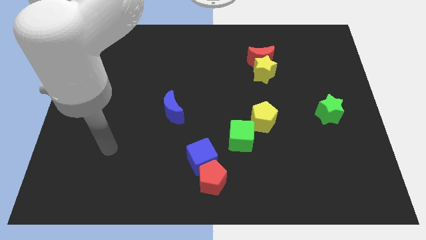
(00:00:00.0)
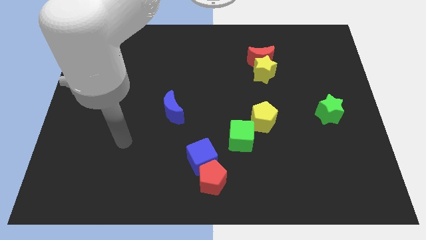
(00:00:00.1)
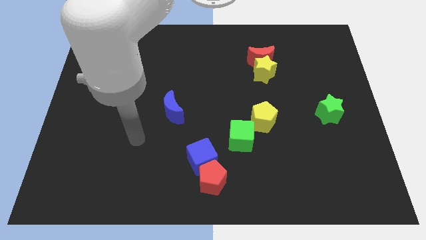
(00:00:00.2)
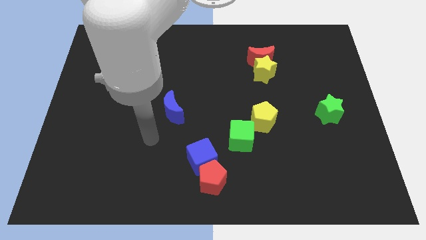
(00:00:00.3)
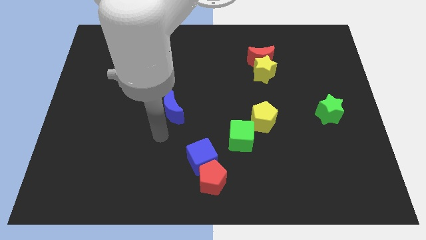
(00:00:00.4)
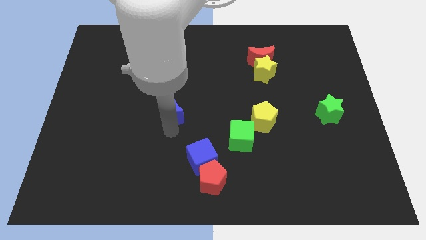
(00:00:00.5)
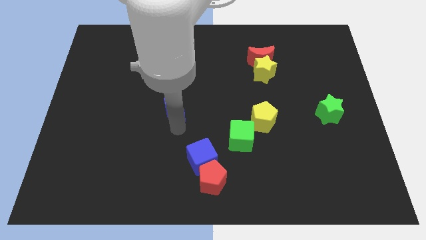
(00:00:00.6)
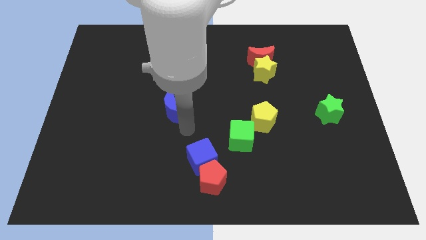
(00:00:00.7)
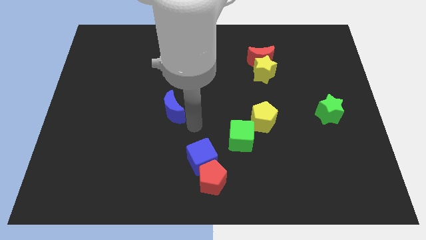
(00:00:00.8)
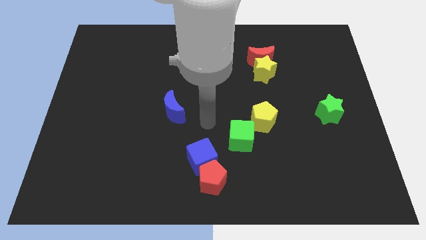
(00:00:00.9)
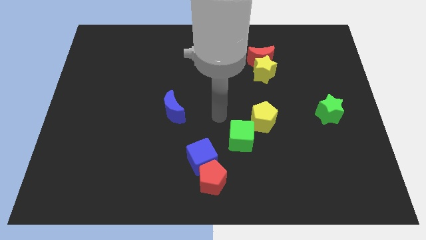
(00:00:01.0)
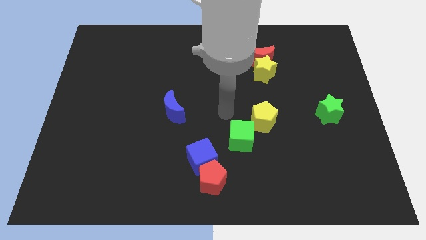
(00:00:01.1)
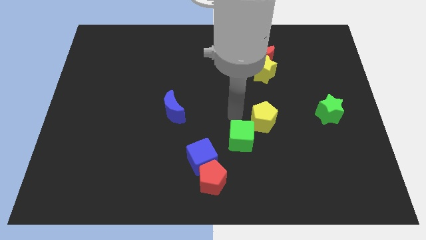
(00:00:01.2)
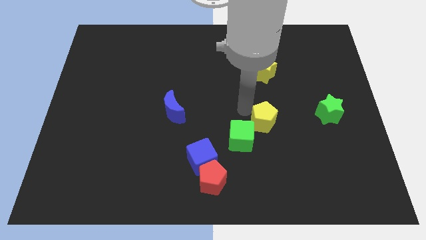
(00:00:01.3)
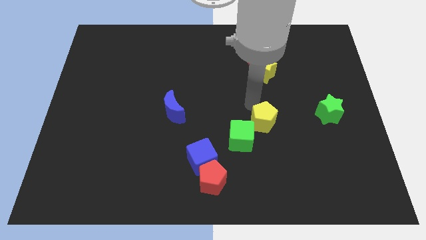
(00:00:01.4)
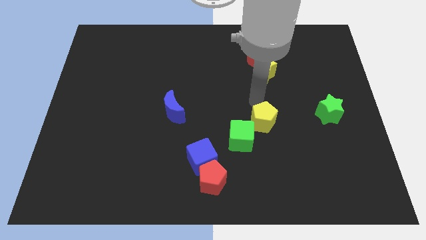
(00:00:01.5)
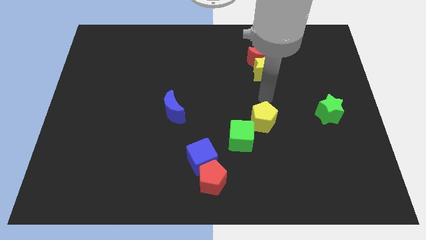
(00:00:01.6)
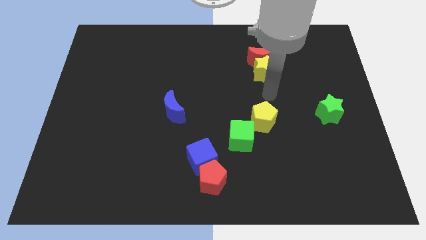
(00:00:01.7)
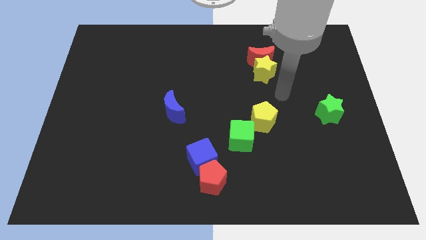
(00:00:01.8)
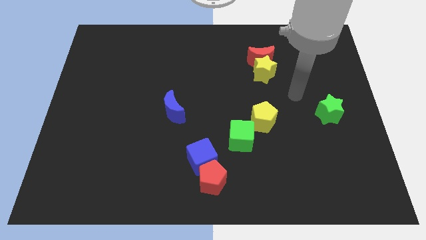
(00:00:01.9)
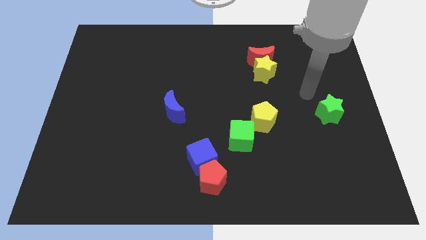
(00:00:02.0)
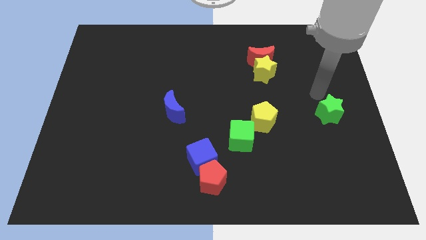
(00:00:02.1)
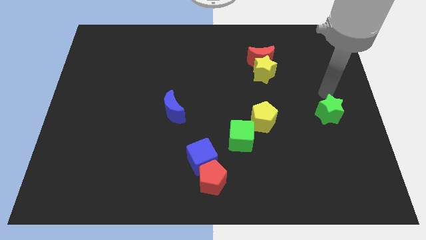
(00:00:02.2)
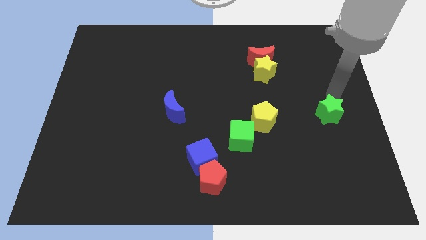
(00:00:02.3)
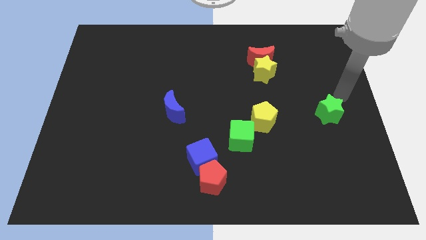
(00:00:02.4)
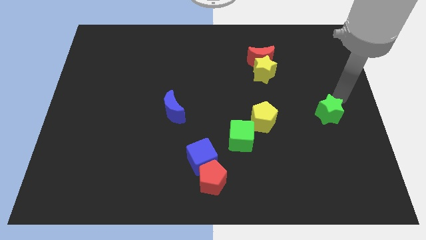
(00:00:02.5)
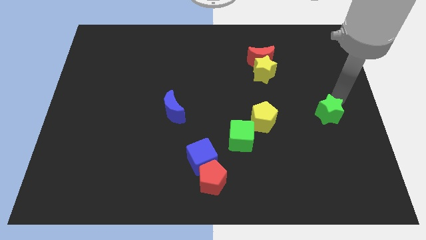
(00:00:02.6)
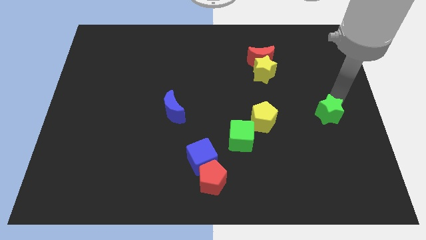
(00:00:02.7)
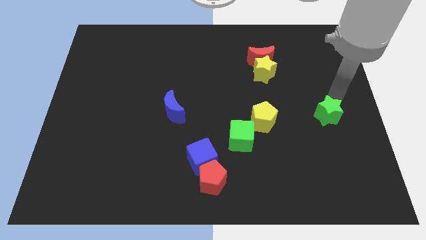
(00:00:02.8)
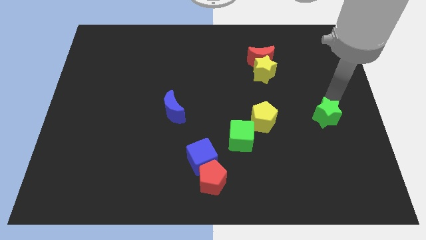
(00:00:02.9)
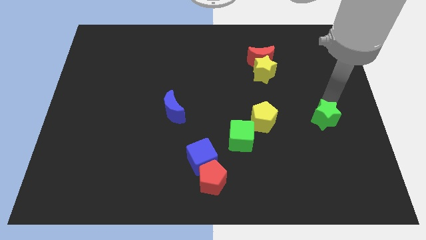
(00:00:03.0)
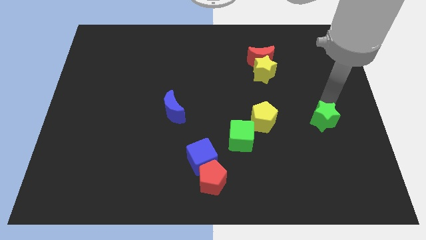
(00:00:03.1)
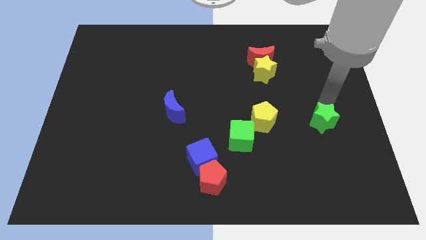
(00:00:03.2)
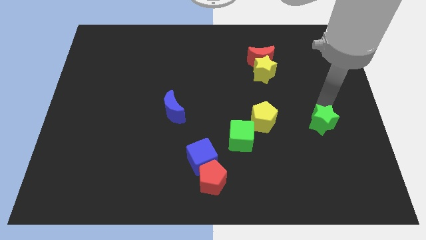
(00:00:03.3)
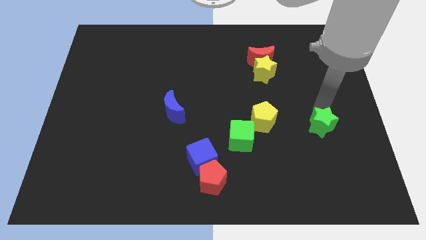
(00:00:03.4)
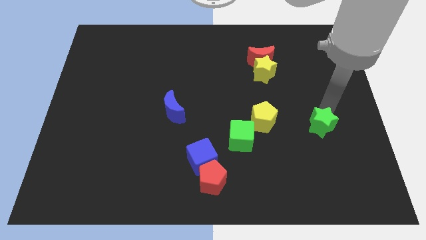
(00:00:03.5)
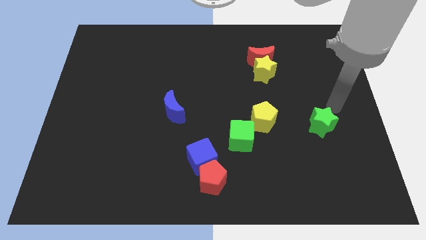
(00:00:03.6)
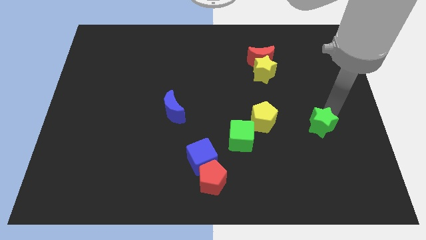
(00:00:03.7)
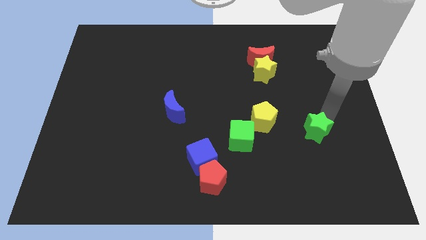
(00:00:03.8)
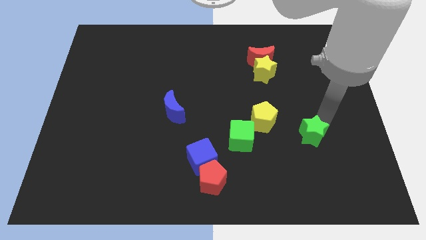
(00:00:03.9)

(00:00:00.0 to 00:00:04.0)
push the green star down and left diagonally a little bit

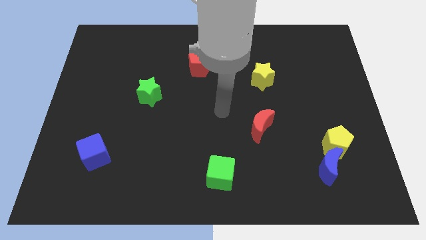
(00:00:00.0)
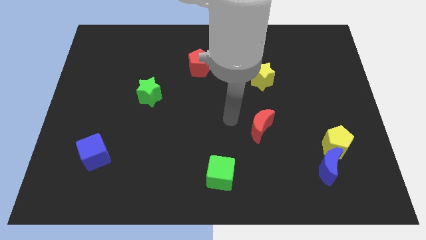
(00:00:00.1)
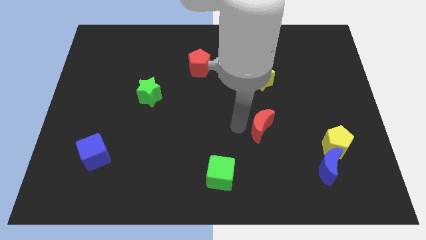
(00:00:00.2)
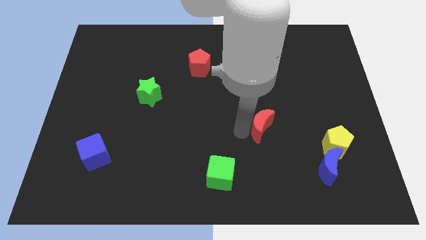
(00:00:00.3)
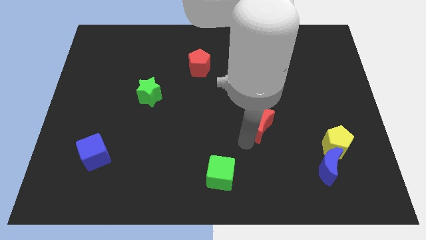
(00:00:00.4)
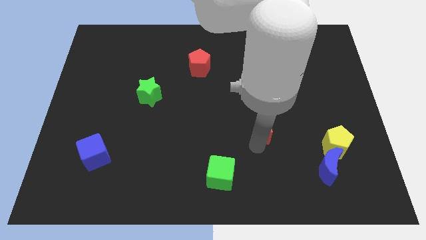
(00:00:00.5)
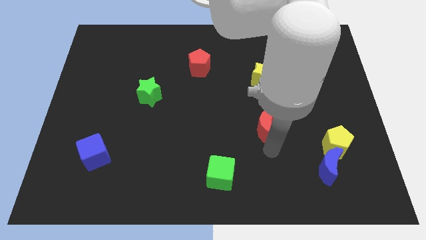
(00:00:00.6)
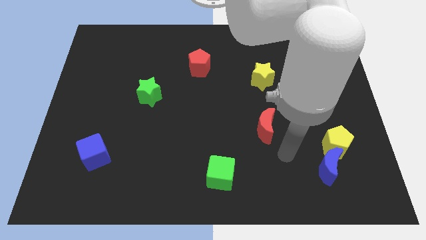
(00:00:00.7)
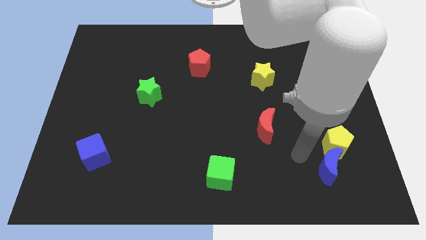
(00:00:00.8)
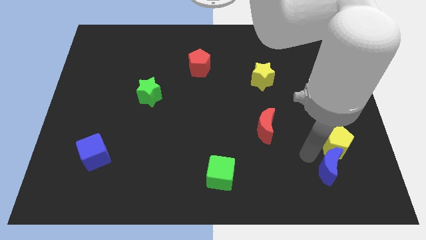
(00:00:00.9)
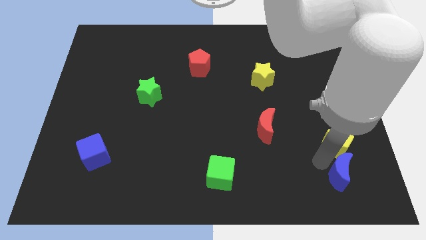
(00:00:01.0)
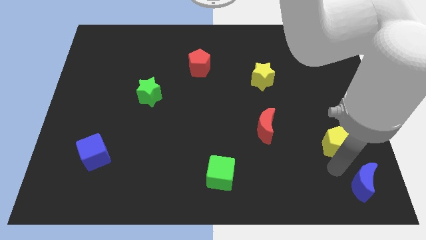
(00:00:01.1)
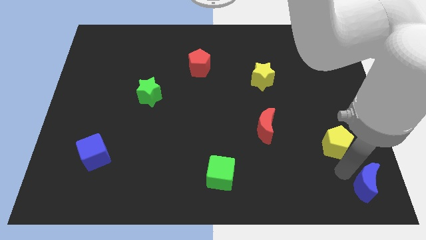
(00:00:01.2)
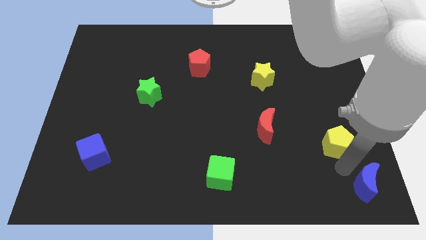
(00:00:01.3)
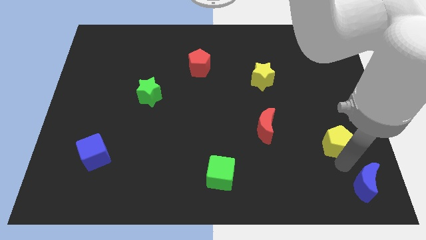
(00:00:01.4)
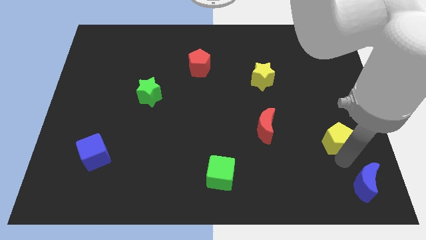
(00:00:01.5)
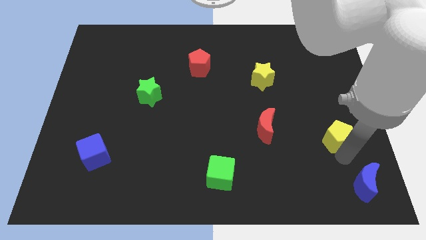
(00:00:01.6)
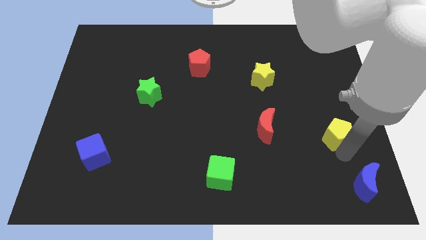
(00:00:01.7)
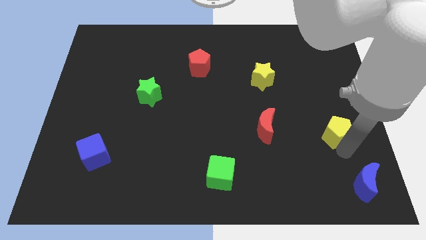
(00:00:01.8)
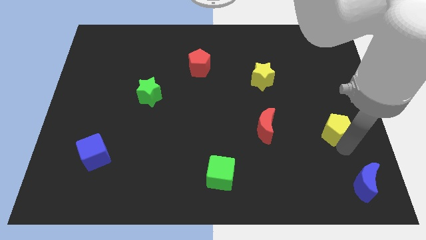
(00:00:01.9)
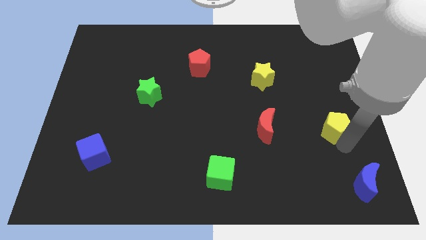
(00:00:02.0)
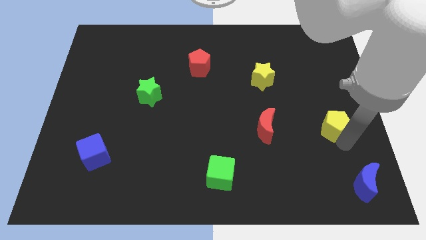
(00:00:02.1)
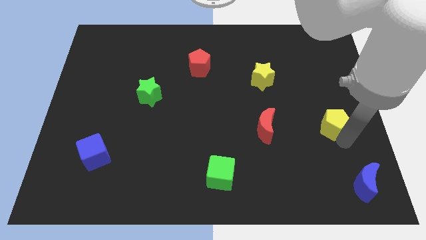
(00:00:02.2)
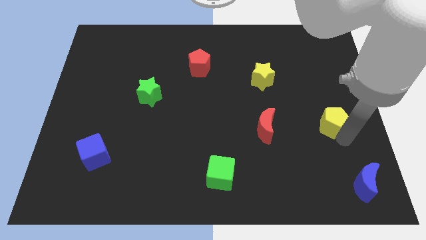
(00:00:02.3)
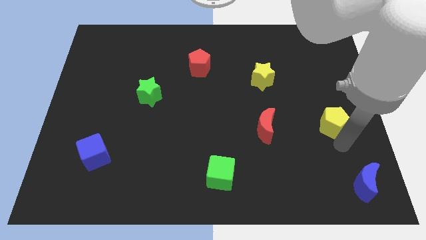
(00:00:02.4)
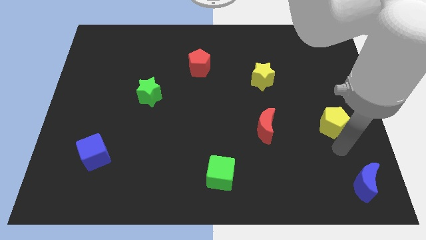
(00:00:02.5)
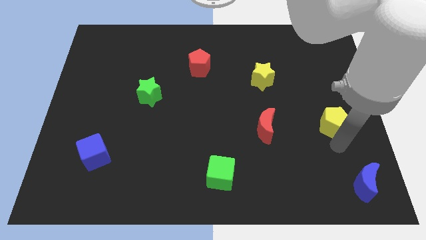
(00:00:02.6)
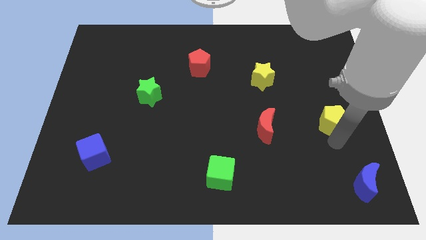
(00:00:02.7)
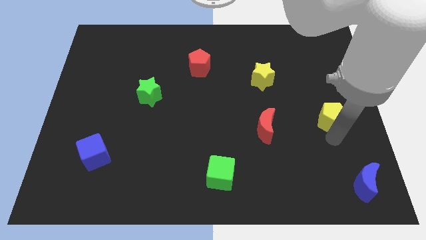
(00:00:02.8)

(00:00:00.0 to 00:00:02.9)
move the yellow pentagon a little upwards

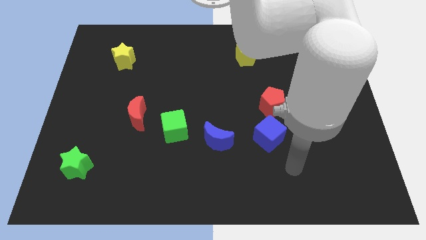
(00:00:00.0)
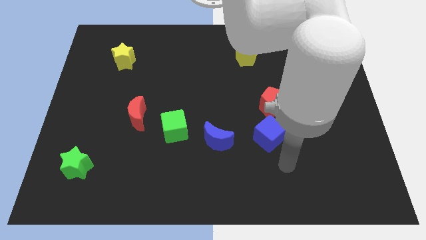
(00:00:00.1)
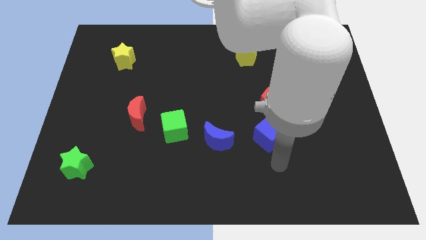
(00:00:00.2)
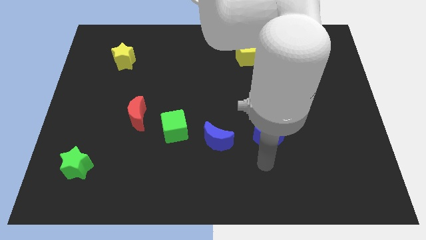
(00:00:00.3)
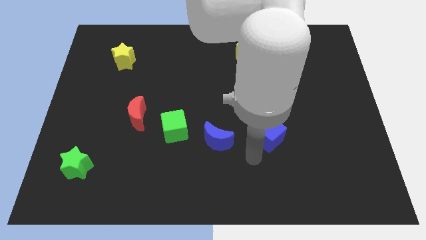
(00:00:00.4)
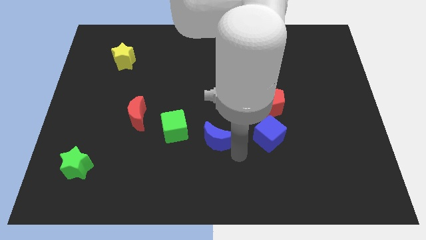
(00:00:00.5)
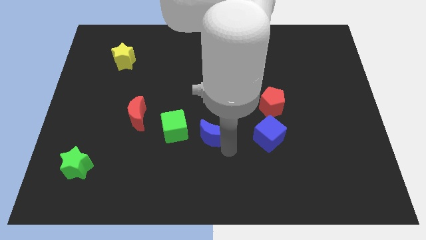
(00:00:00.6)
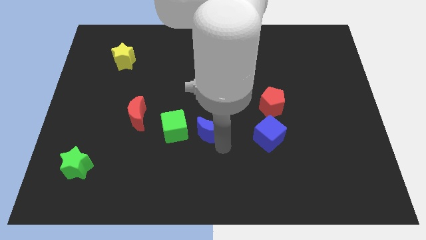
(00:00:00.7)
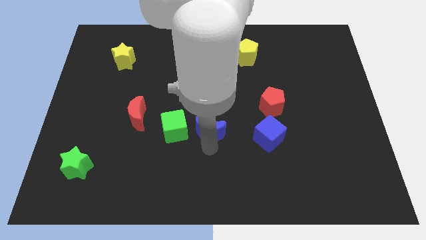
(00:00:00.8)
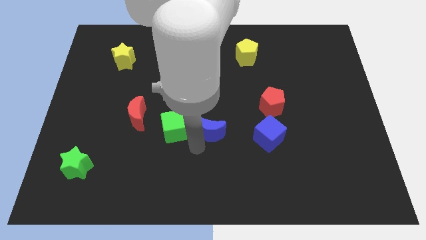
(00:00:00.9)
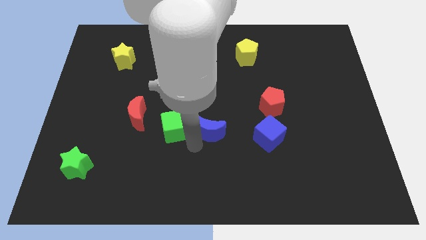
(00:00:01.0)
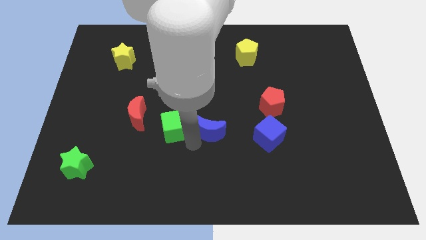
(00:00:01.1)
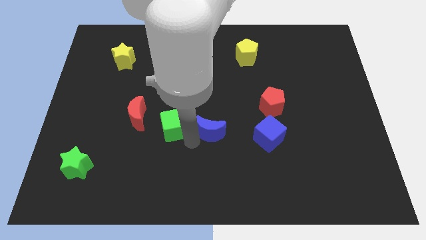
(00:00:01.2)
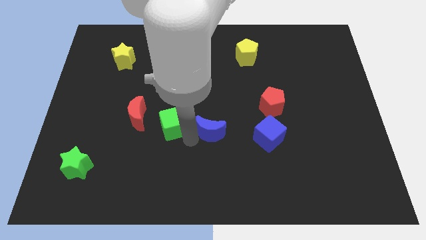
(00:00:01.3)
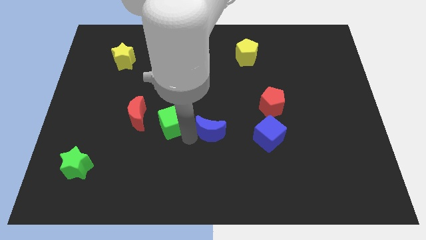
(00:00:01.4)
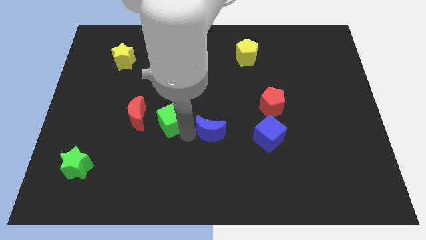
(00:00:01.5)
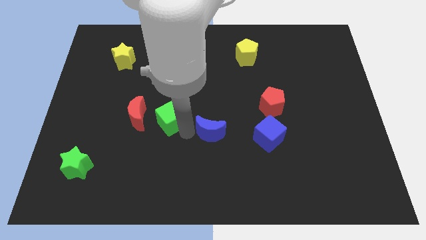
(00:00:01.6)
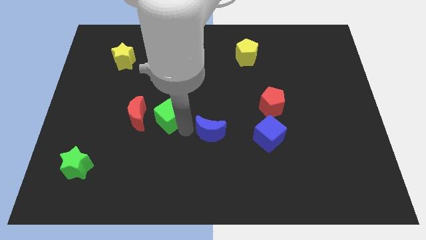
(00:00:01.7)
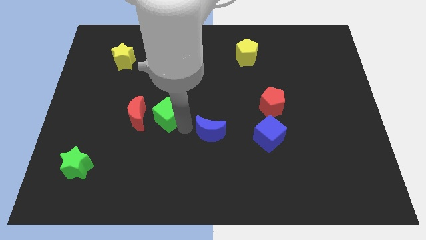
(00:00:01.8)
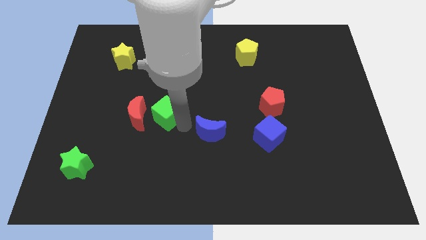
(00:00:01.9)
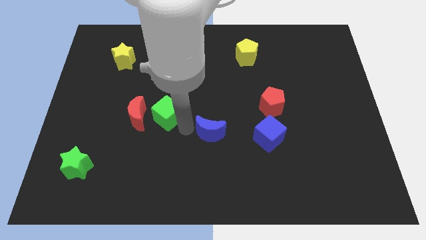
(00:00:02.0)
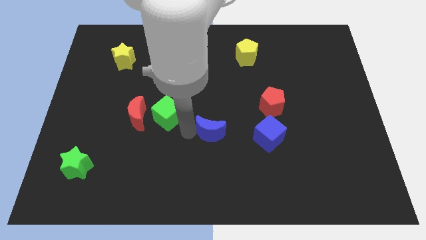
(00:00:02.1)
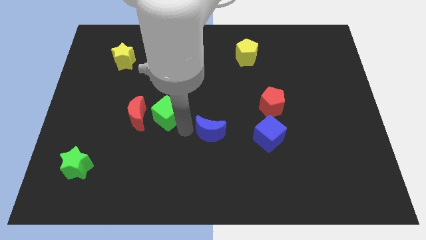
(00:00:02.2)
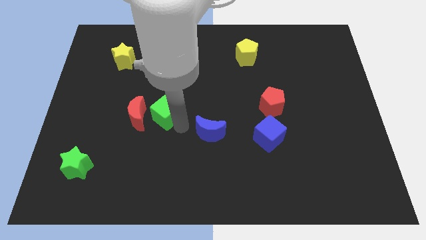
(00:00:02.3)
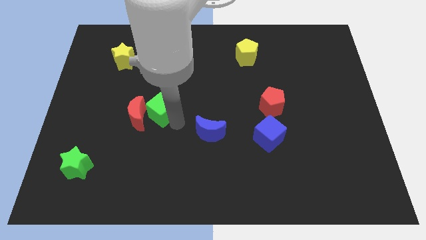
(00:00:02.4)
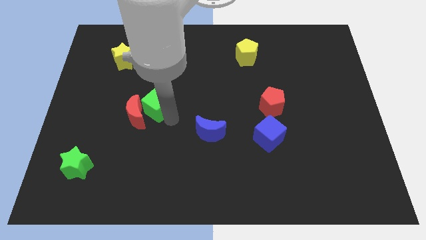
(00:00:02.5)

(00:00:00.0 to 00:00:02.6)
slide the green cube a little bit up and to the left
